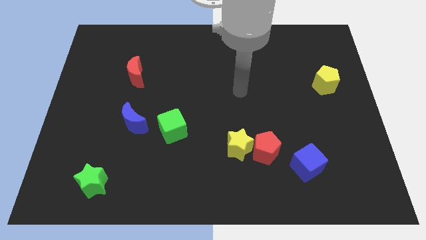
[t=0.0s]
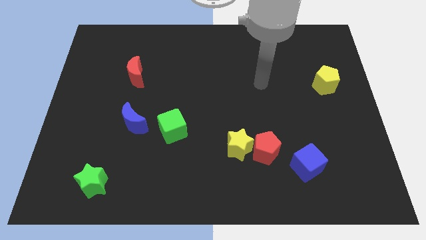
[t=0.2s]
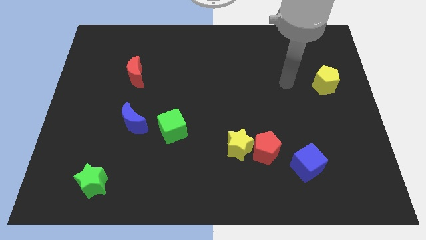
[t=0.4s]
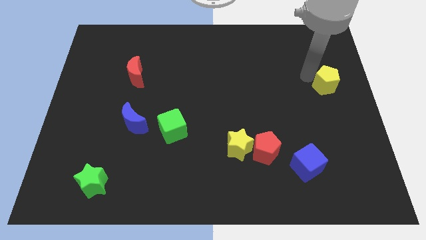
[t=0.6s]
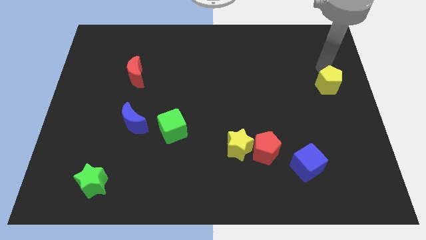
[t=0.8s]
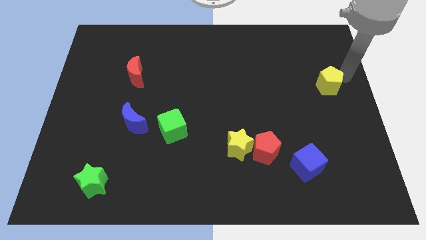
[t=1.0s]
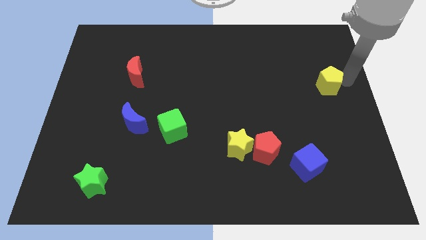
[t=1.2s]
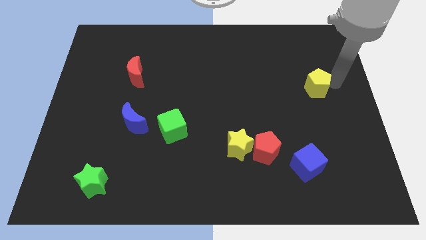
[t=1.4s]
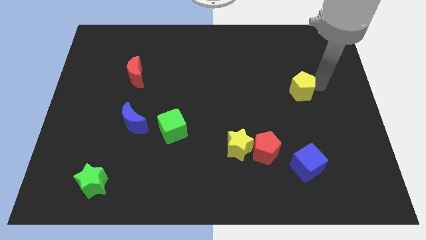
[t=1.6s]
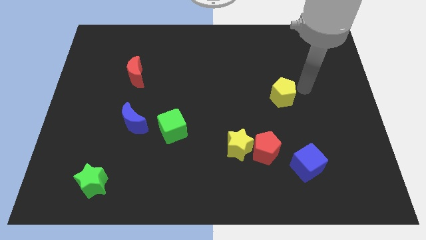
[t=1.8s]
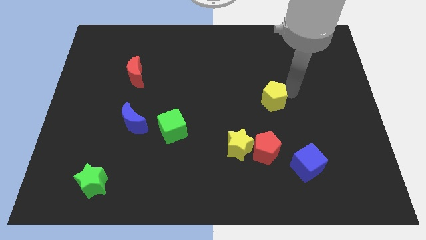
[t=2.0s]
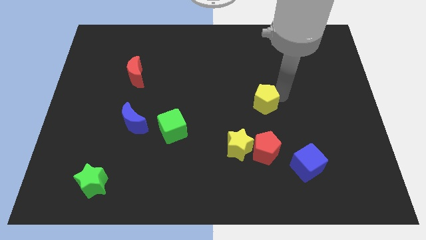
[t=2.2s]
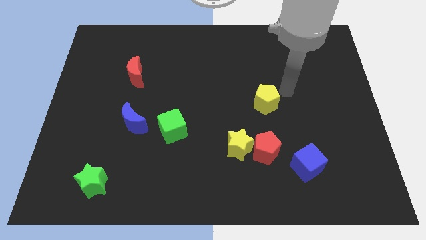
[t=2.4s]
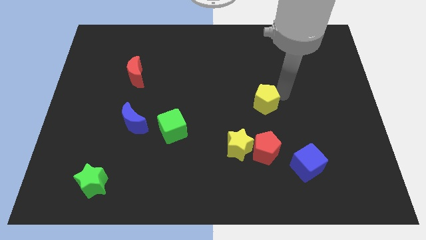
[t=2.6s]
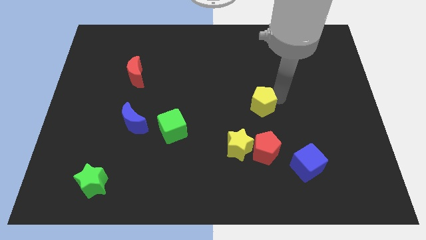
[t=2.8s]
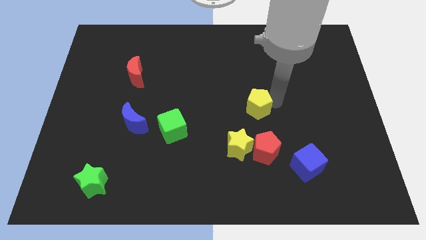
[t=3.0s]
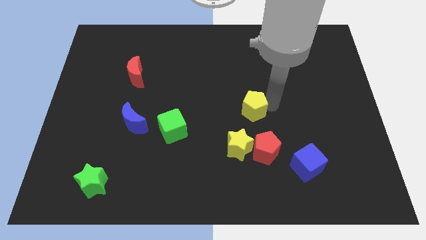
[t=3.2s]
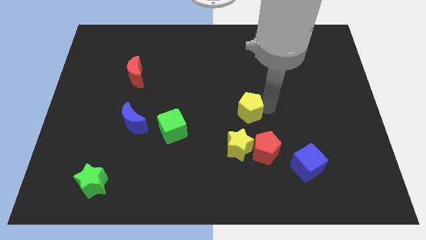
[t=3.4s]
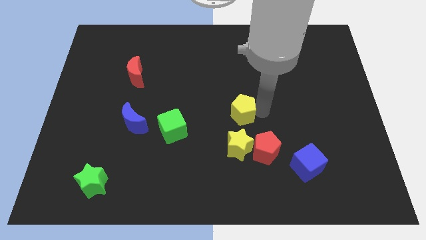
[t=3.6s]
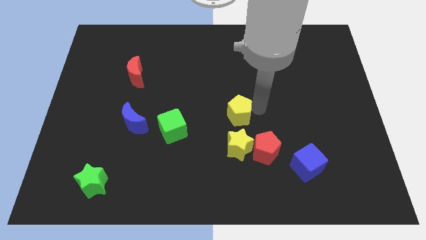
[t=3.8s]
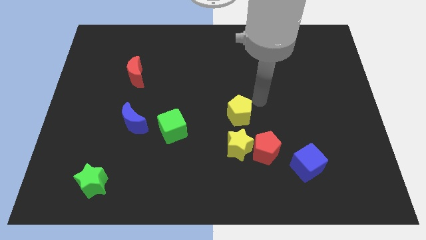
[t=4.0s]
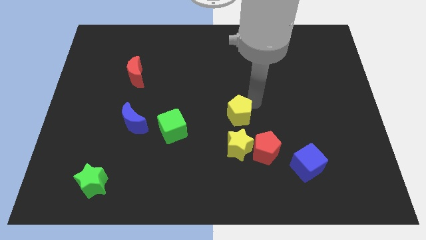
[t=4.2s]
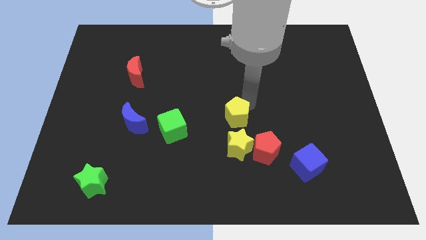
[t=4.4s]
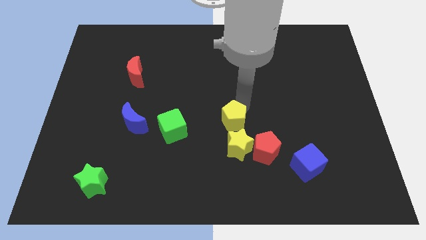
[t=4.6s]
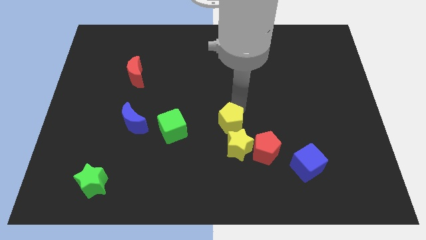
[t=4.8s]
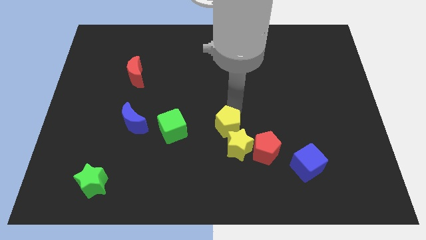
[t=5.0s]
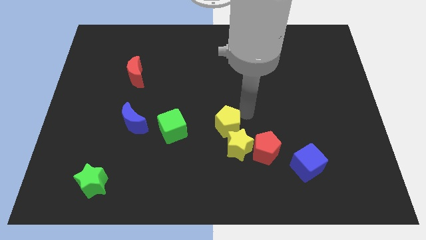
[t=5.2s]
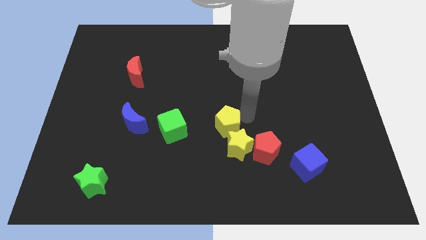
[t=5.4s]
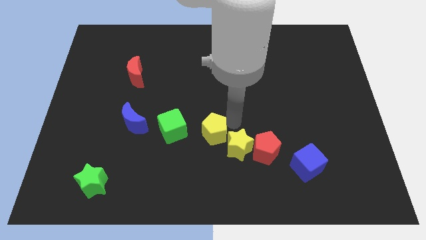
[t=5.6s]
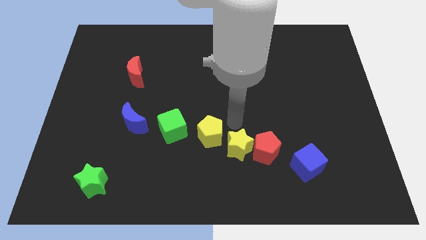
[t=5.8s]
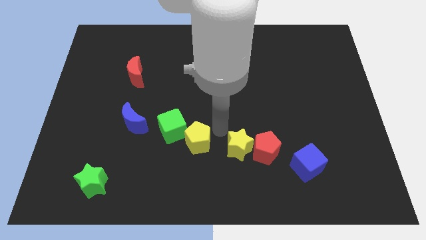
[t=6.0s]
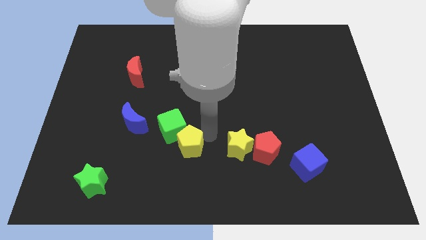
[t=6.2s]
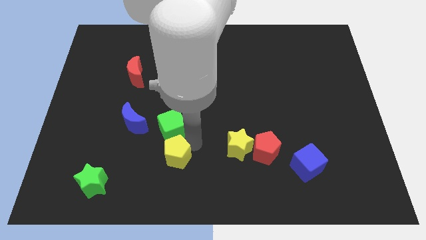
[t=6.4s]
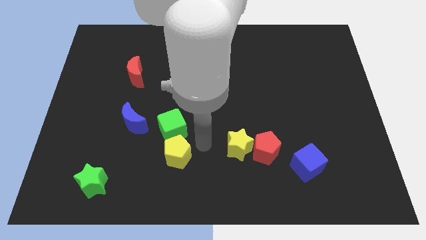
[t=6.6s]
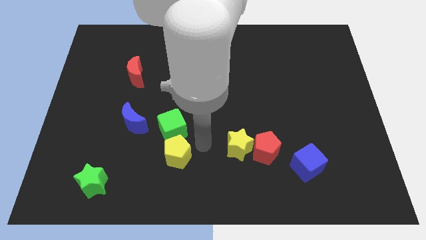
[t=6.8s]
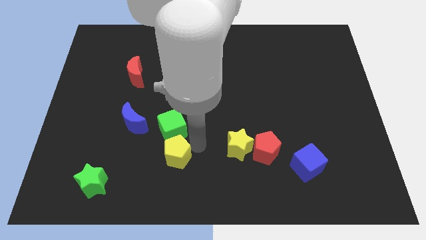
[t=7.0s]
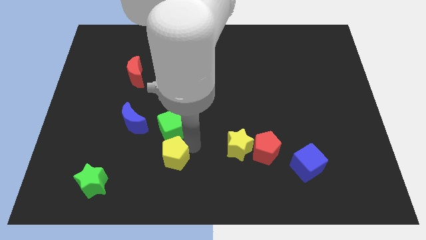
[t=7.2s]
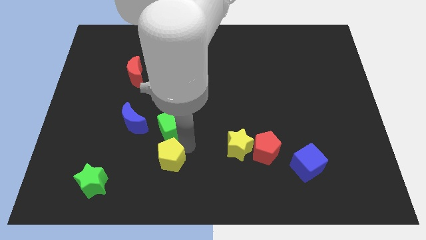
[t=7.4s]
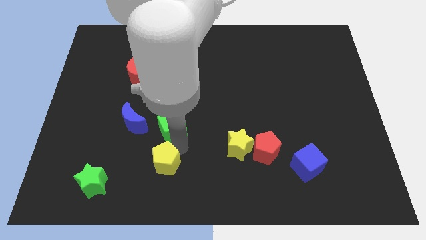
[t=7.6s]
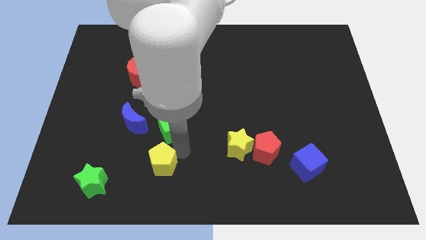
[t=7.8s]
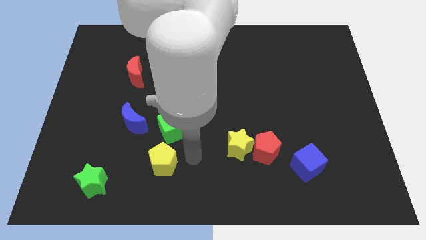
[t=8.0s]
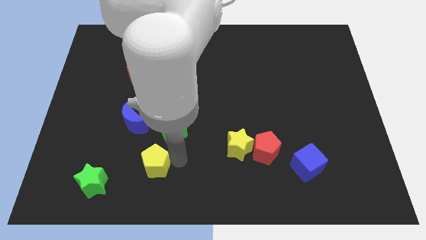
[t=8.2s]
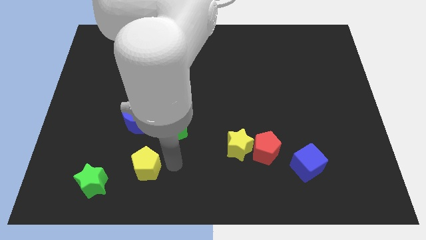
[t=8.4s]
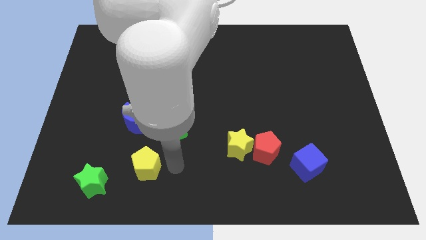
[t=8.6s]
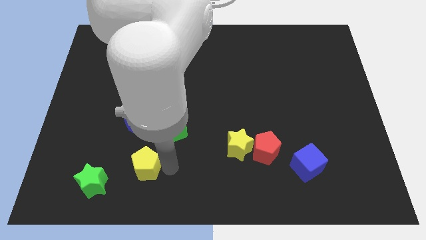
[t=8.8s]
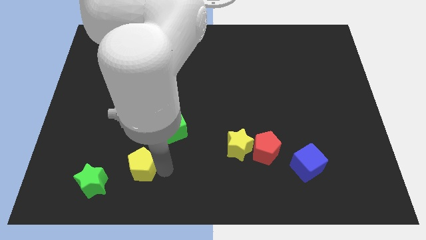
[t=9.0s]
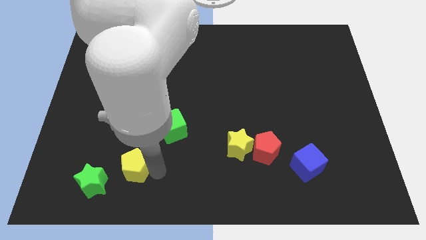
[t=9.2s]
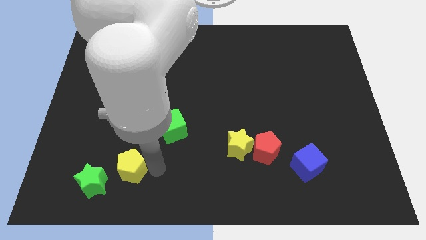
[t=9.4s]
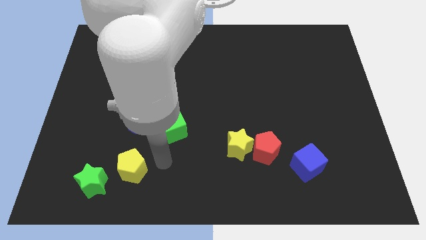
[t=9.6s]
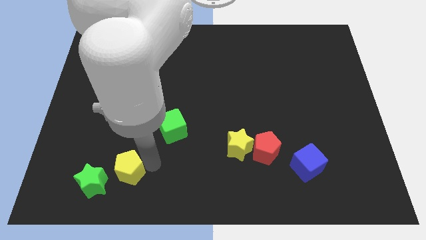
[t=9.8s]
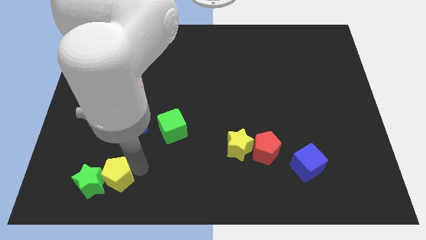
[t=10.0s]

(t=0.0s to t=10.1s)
move the yellow pentagon close to the green star

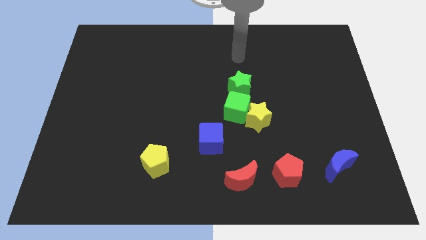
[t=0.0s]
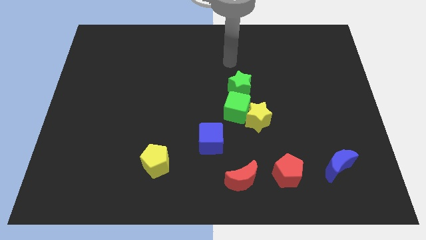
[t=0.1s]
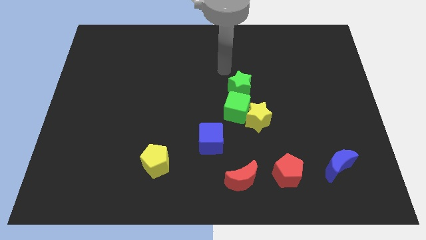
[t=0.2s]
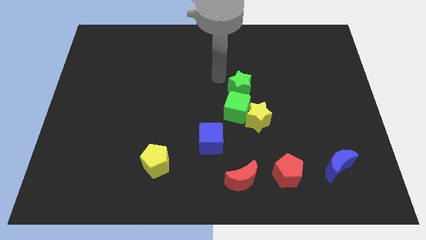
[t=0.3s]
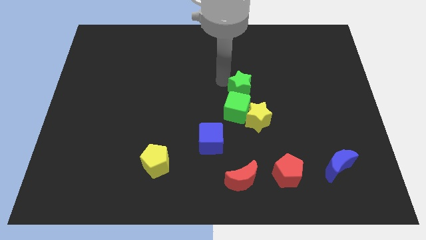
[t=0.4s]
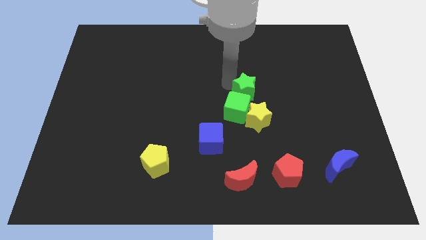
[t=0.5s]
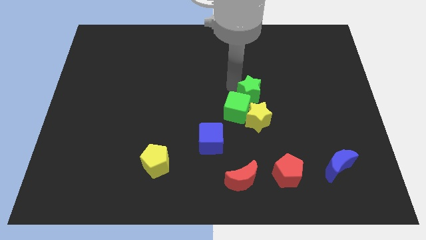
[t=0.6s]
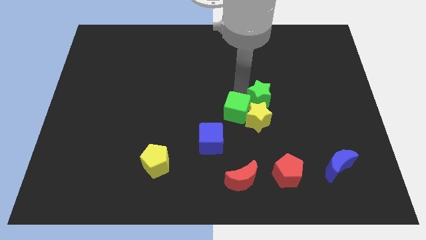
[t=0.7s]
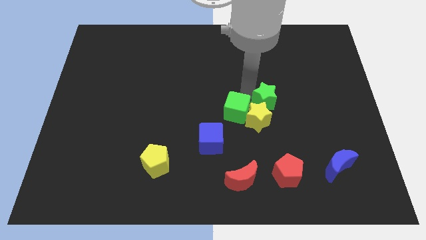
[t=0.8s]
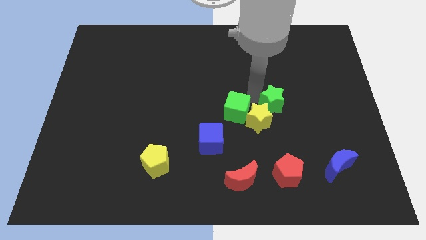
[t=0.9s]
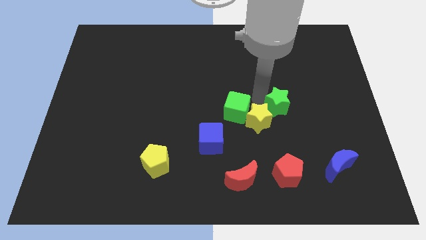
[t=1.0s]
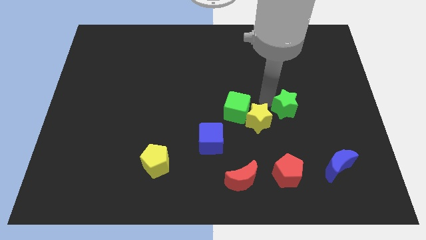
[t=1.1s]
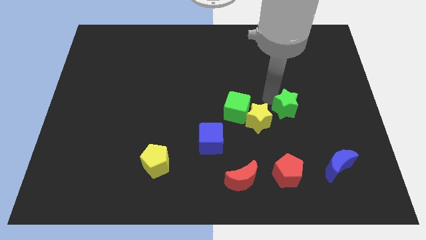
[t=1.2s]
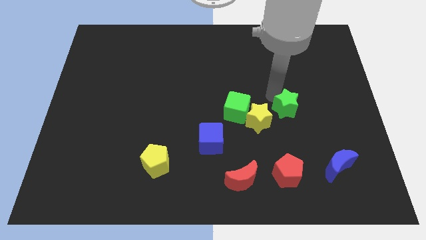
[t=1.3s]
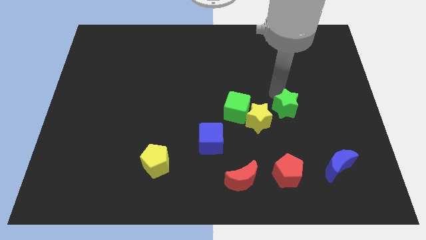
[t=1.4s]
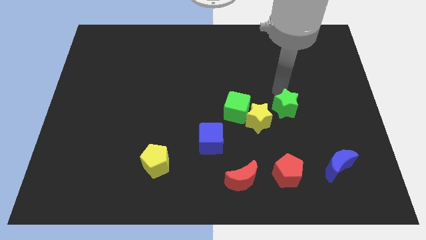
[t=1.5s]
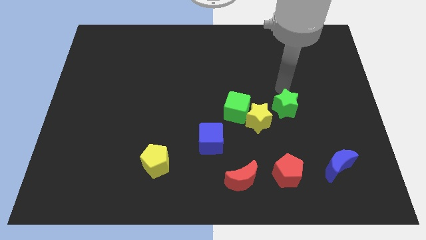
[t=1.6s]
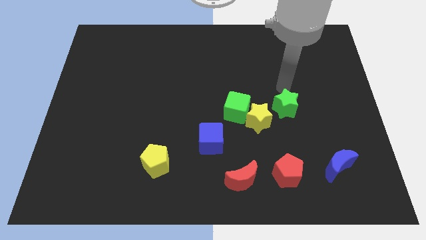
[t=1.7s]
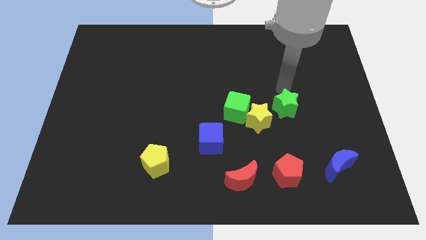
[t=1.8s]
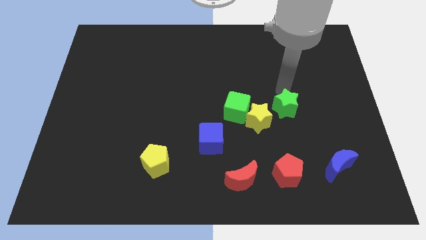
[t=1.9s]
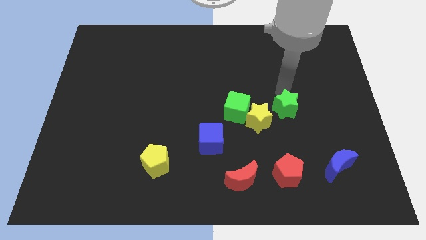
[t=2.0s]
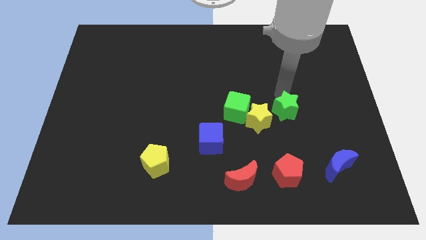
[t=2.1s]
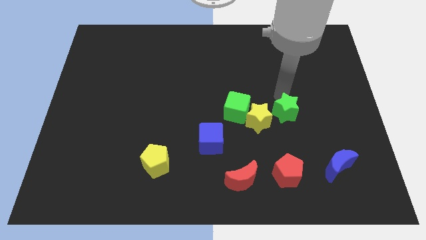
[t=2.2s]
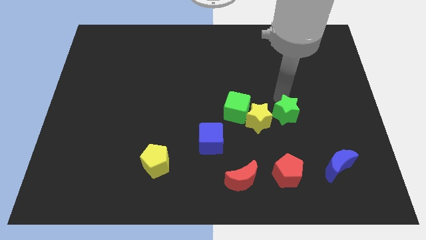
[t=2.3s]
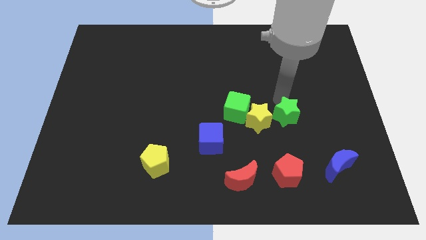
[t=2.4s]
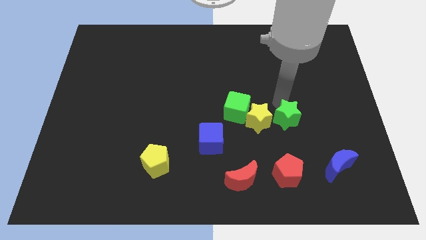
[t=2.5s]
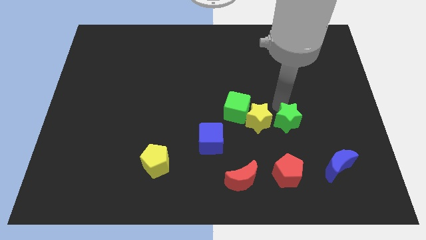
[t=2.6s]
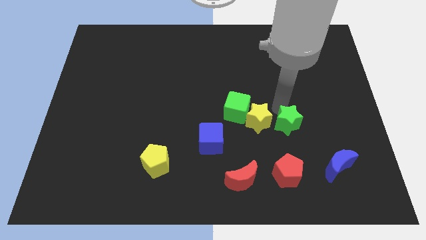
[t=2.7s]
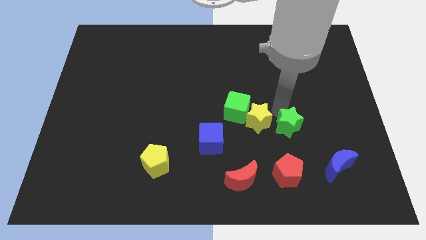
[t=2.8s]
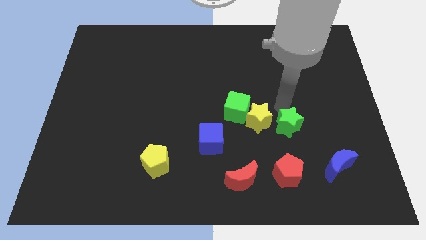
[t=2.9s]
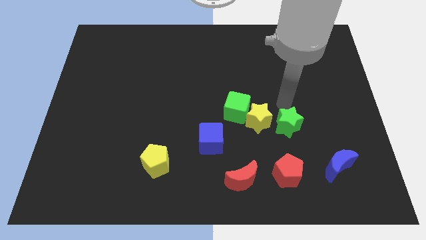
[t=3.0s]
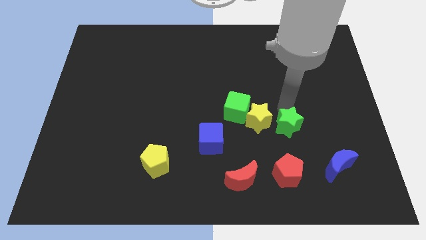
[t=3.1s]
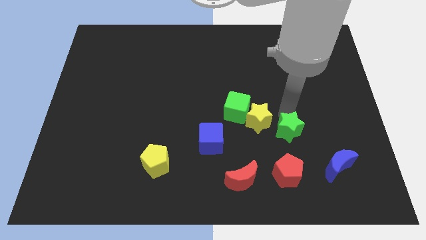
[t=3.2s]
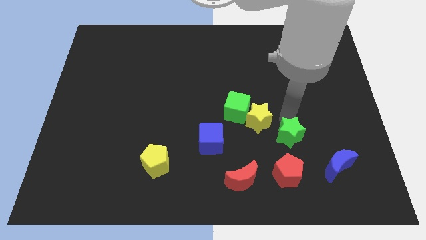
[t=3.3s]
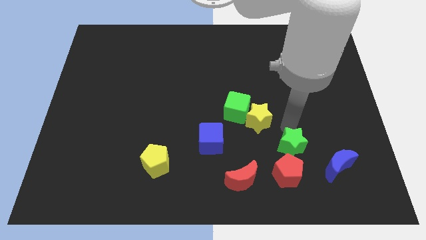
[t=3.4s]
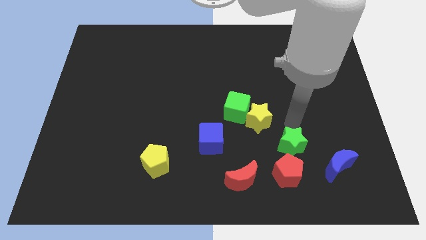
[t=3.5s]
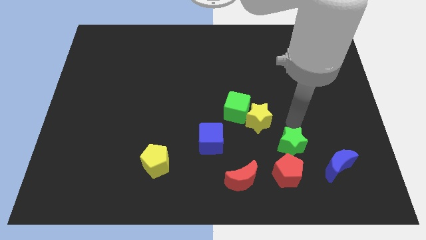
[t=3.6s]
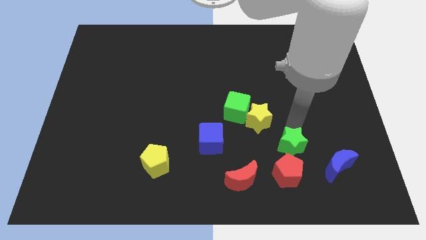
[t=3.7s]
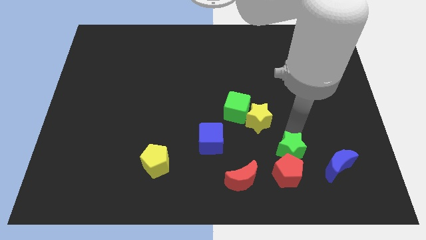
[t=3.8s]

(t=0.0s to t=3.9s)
move the green star next to the red pentagon
